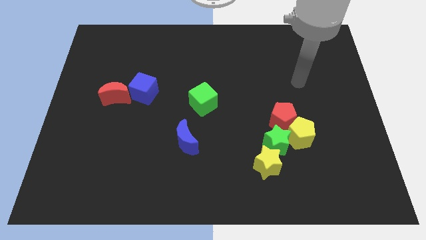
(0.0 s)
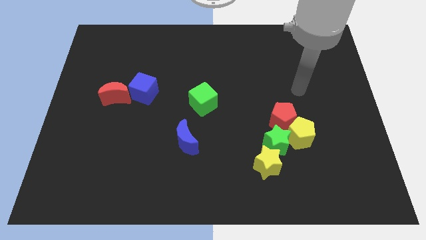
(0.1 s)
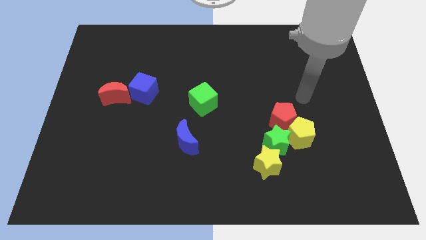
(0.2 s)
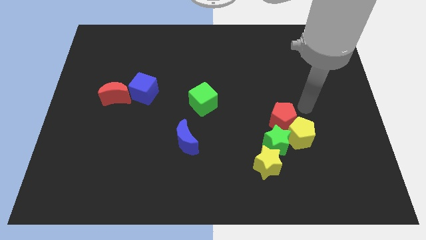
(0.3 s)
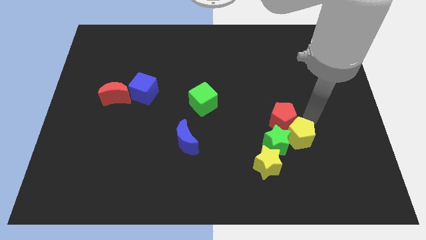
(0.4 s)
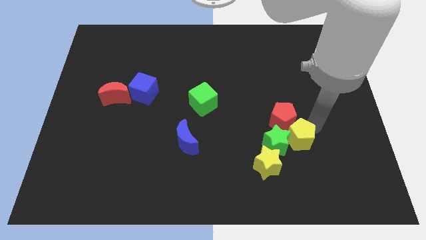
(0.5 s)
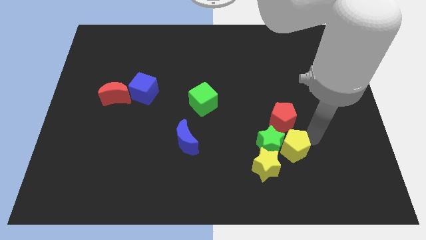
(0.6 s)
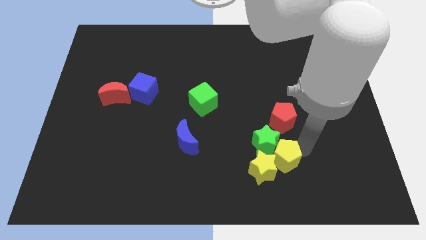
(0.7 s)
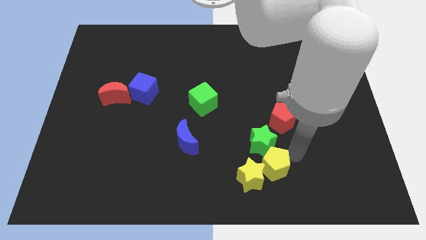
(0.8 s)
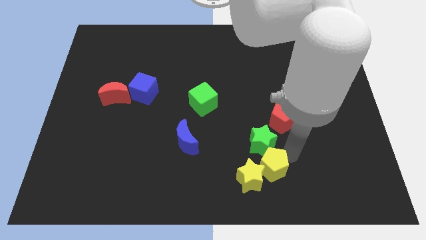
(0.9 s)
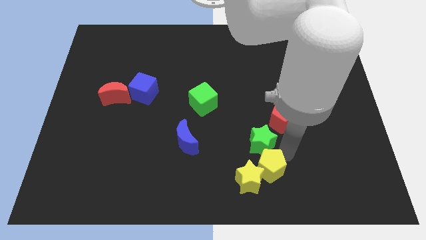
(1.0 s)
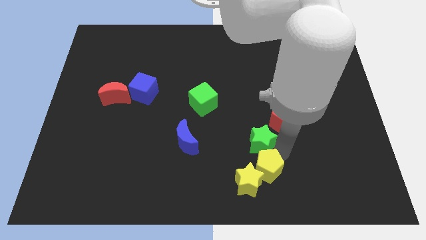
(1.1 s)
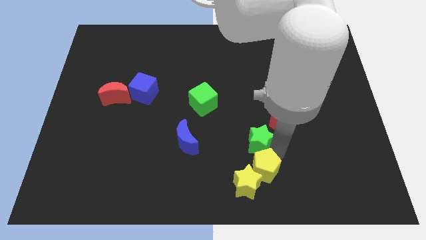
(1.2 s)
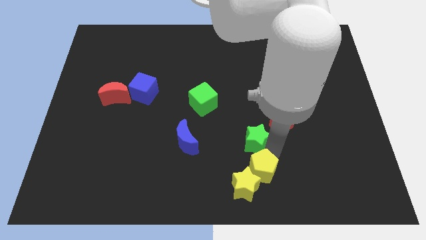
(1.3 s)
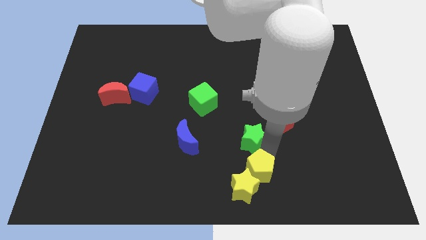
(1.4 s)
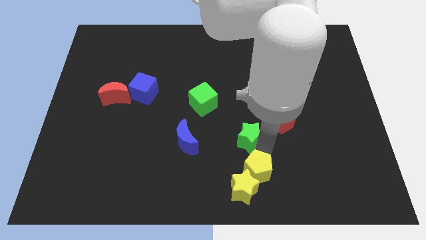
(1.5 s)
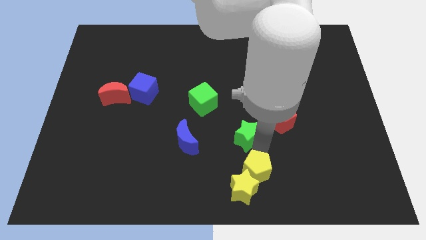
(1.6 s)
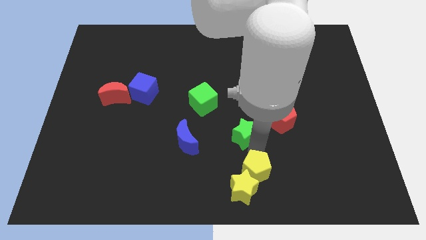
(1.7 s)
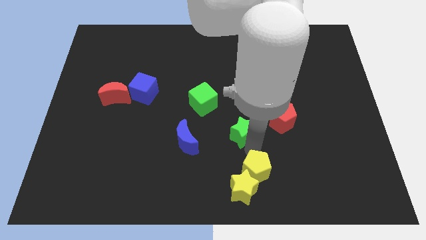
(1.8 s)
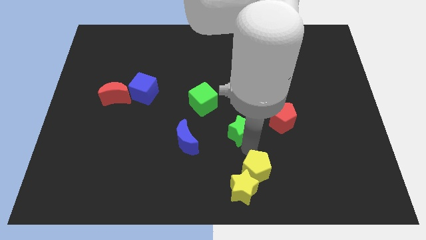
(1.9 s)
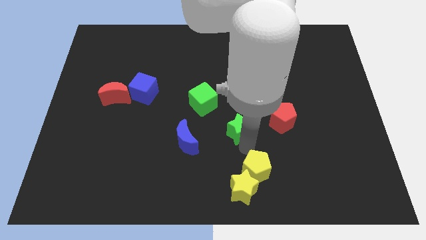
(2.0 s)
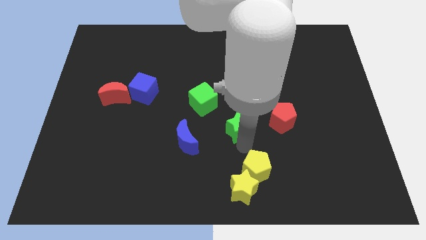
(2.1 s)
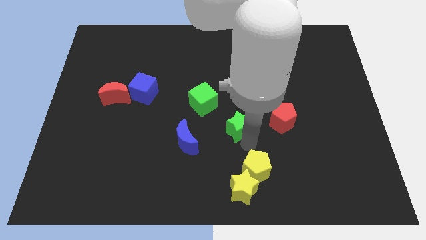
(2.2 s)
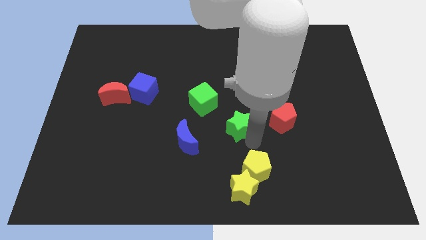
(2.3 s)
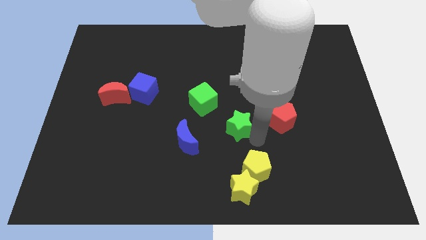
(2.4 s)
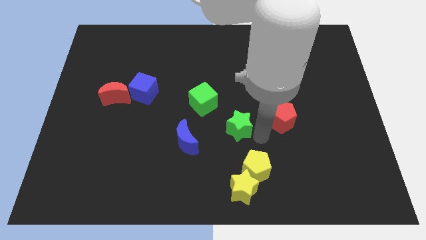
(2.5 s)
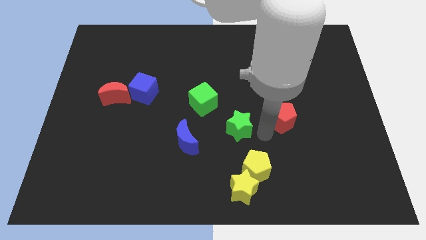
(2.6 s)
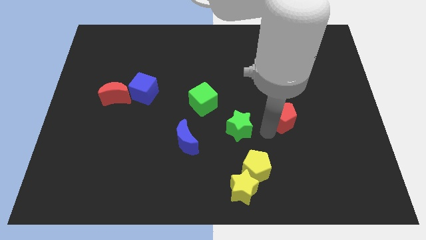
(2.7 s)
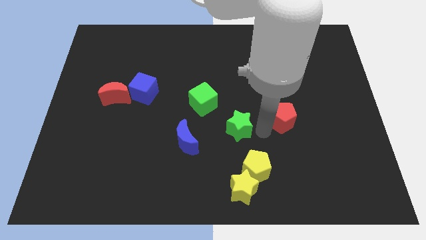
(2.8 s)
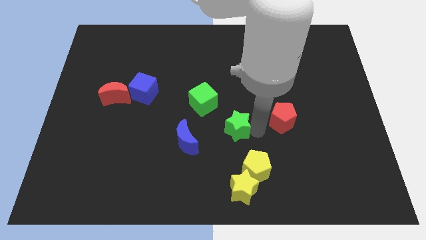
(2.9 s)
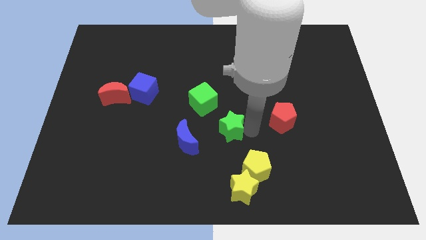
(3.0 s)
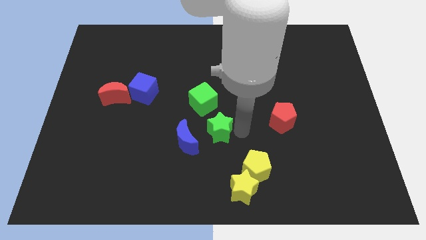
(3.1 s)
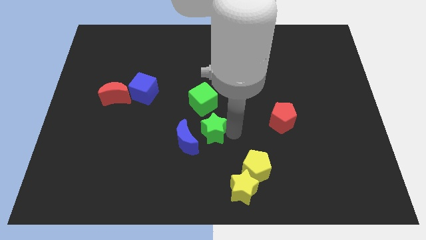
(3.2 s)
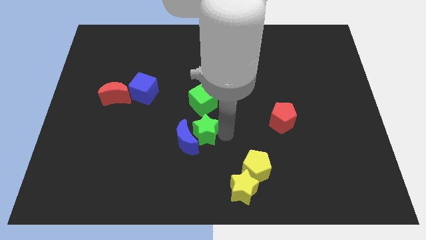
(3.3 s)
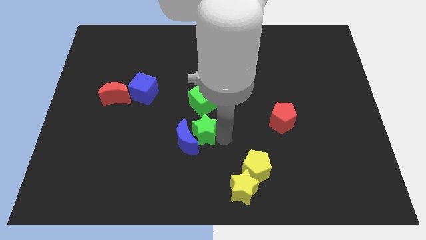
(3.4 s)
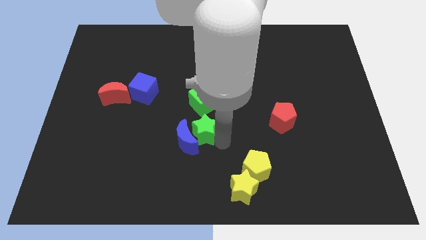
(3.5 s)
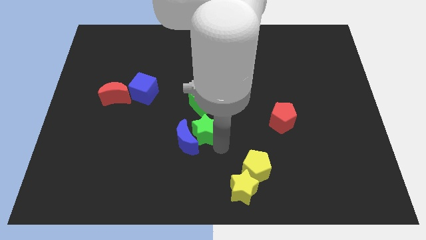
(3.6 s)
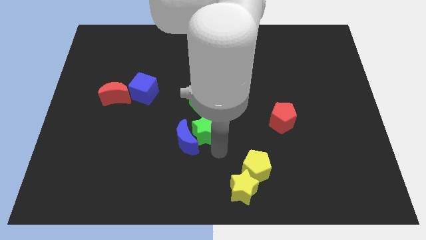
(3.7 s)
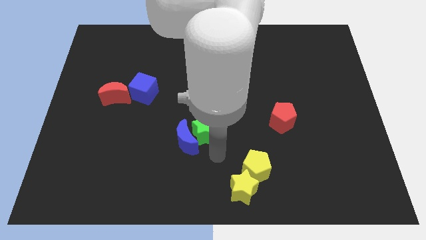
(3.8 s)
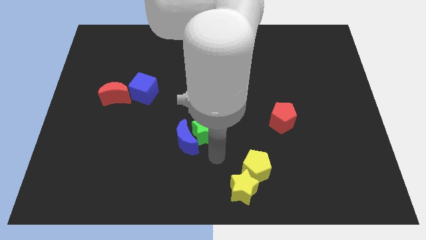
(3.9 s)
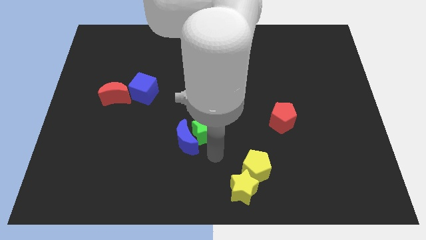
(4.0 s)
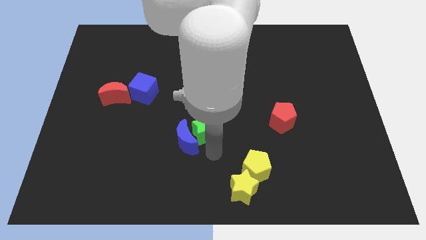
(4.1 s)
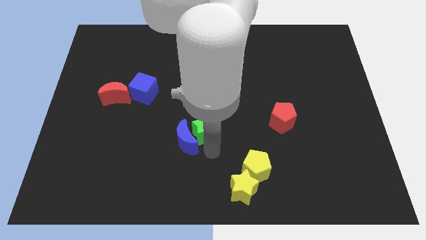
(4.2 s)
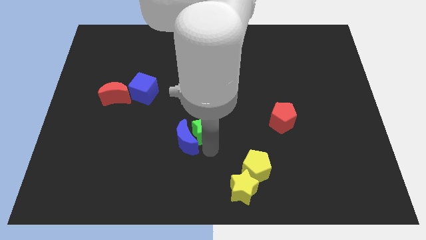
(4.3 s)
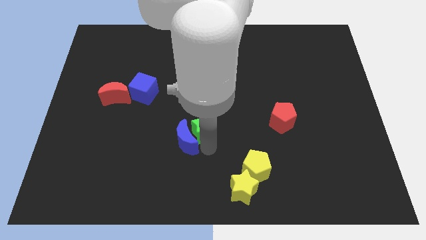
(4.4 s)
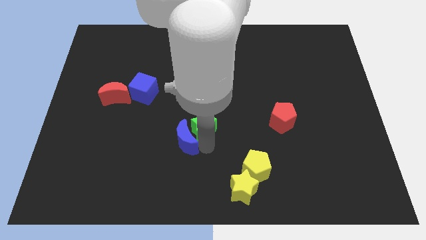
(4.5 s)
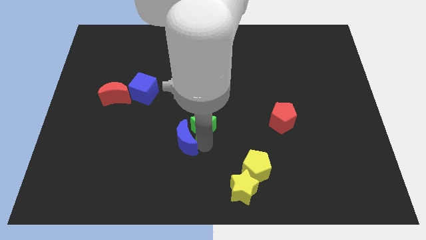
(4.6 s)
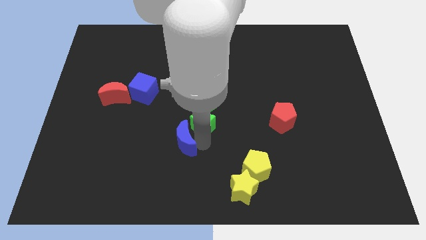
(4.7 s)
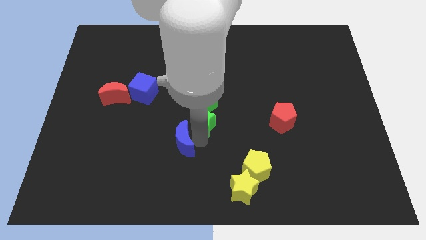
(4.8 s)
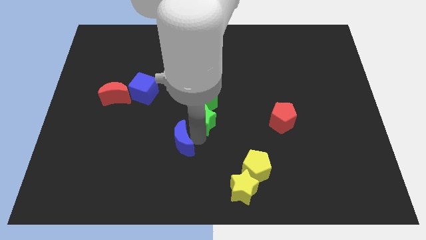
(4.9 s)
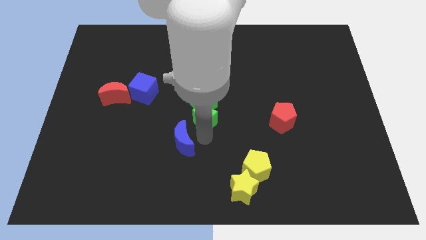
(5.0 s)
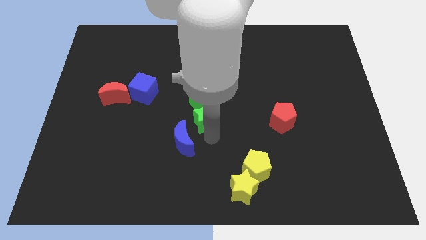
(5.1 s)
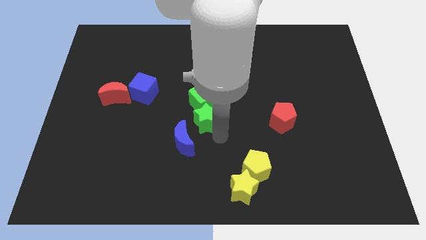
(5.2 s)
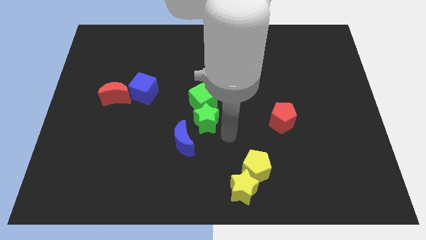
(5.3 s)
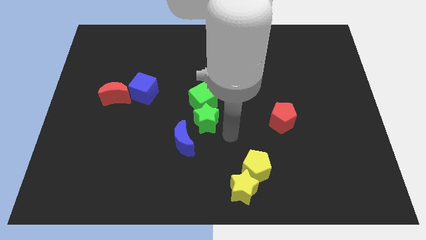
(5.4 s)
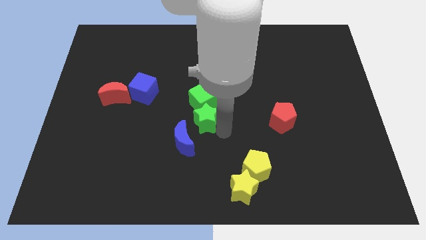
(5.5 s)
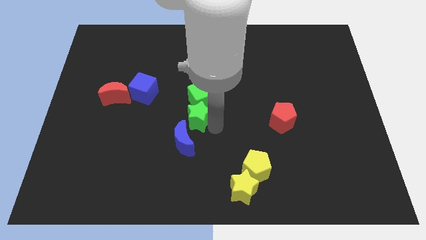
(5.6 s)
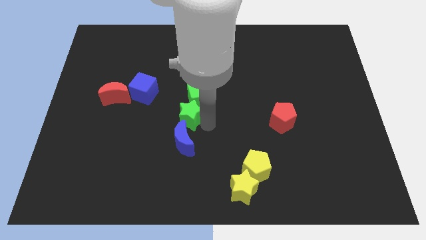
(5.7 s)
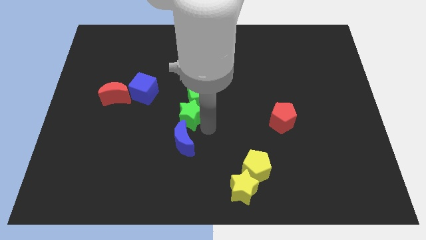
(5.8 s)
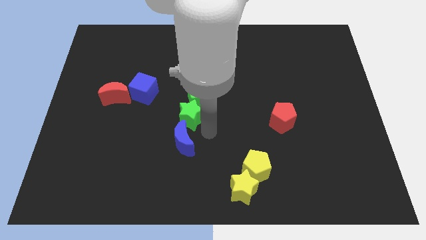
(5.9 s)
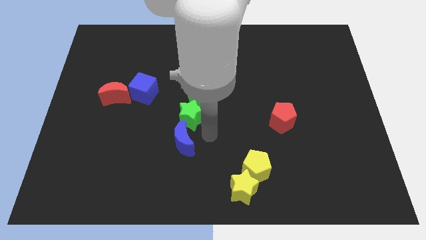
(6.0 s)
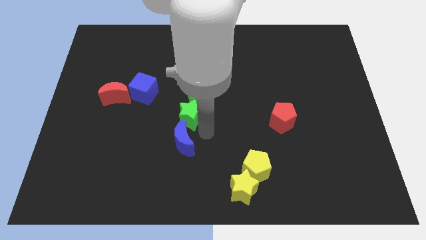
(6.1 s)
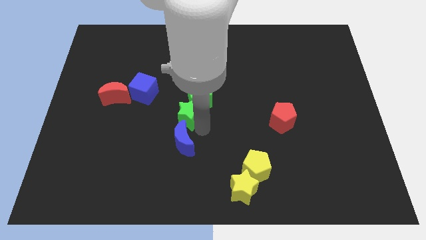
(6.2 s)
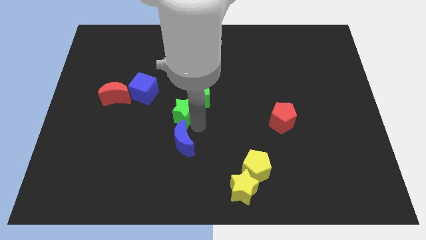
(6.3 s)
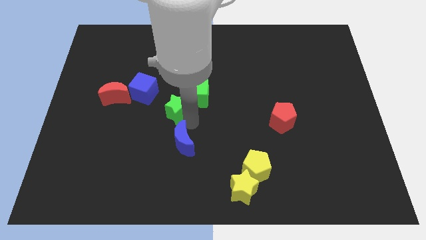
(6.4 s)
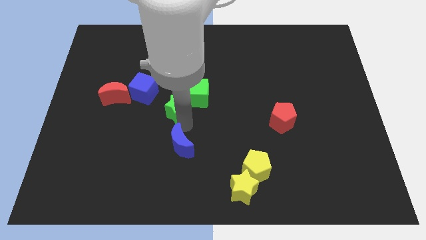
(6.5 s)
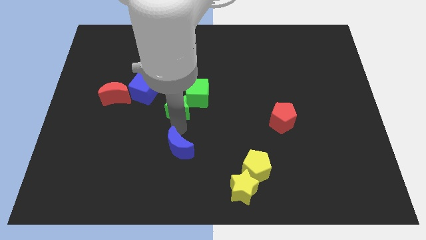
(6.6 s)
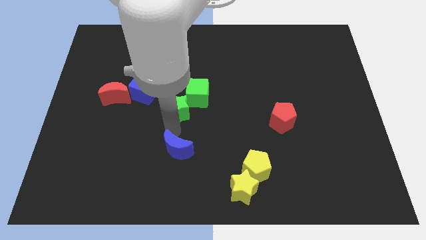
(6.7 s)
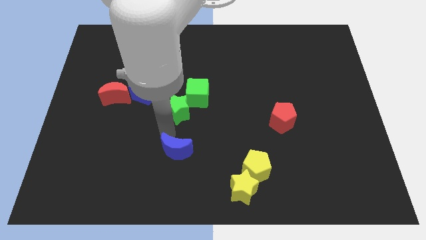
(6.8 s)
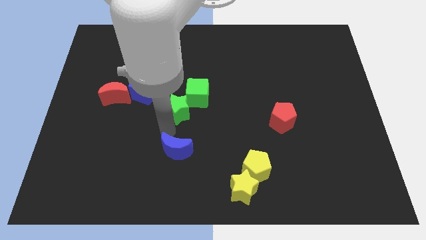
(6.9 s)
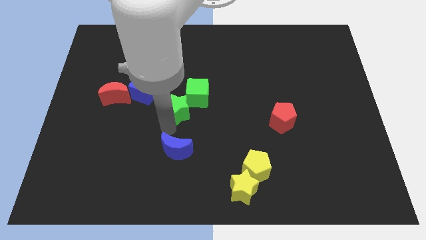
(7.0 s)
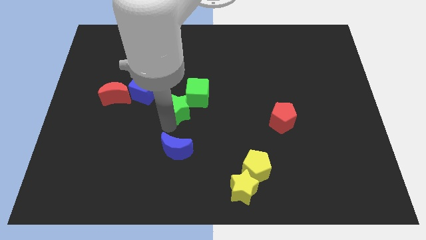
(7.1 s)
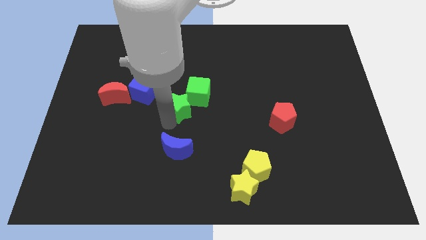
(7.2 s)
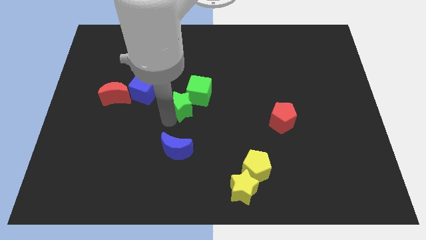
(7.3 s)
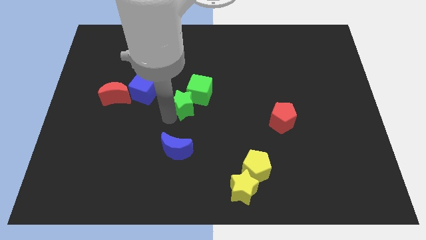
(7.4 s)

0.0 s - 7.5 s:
put the green star right of the blue cube
